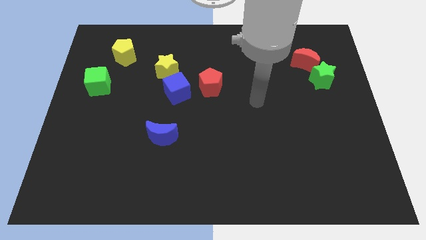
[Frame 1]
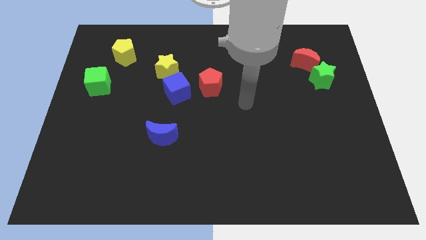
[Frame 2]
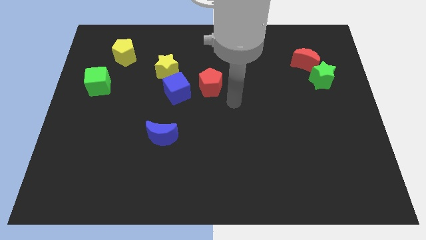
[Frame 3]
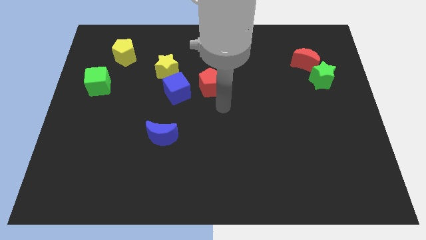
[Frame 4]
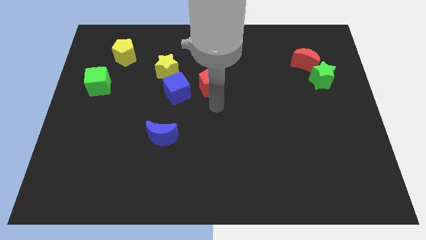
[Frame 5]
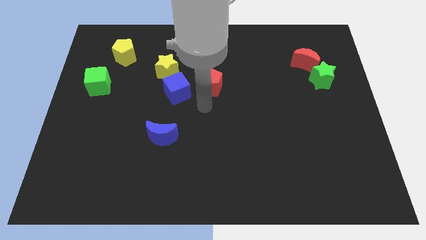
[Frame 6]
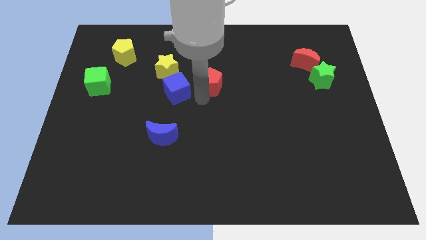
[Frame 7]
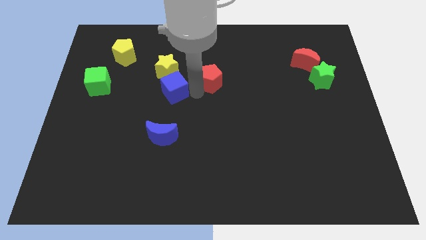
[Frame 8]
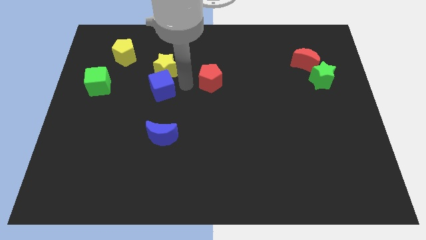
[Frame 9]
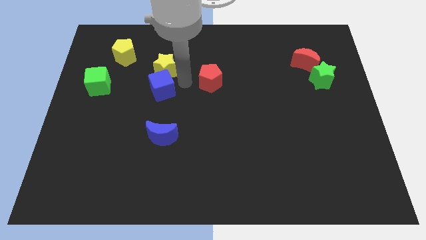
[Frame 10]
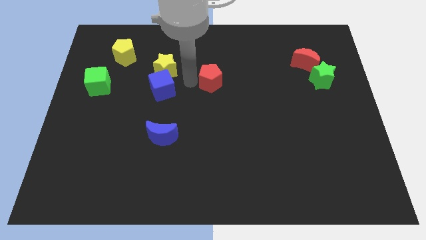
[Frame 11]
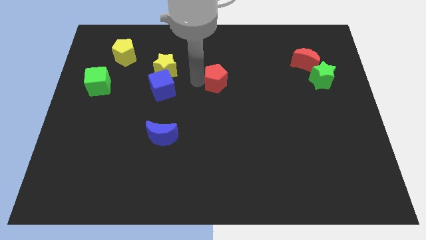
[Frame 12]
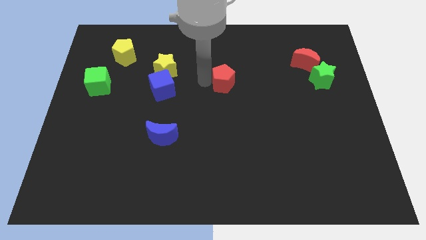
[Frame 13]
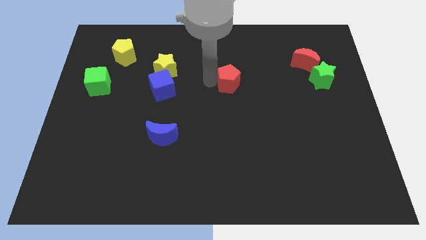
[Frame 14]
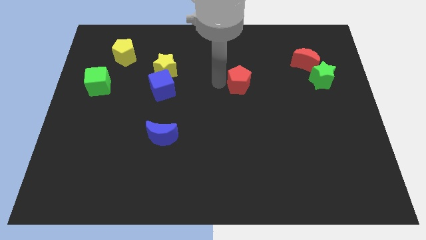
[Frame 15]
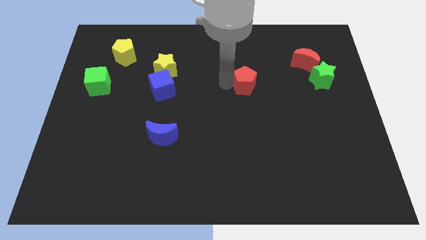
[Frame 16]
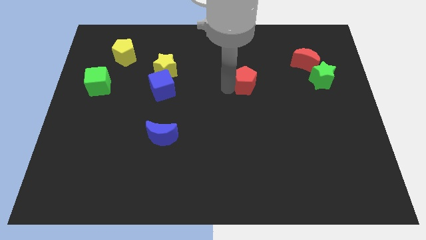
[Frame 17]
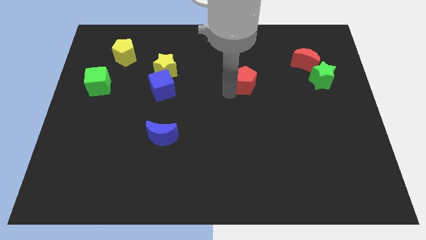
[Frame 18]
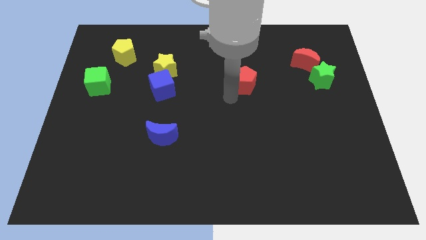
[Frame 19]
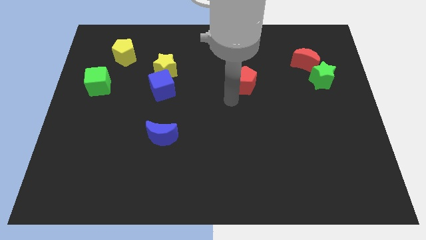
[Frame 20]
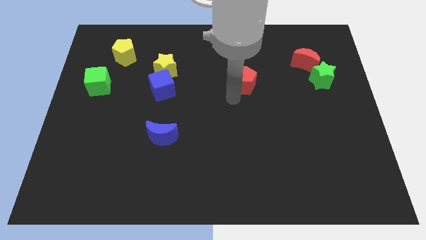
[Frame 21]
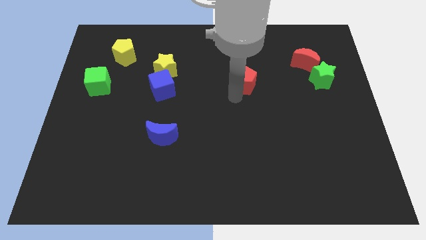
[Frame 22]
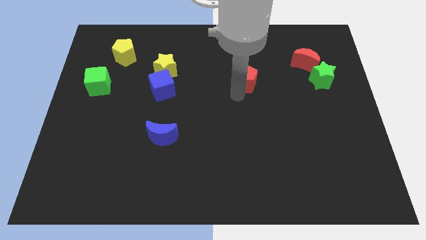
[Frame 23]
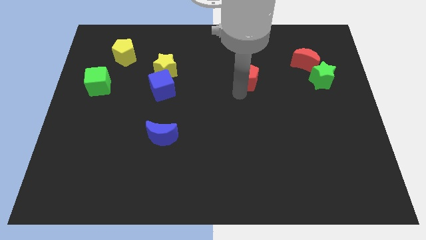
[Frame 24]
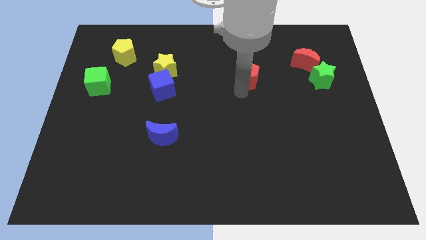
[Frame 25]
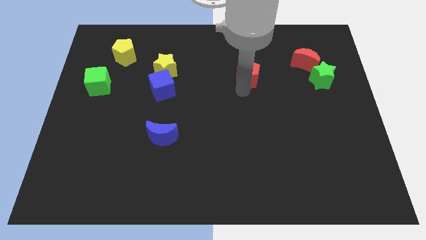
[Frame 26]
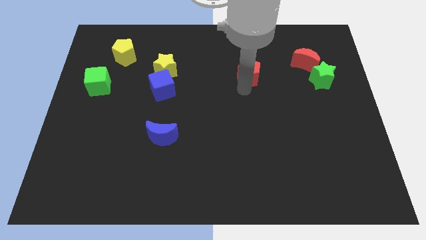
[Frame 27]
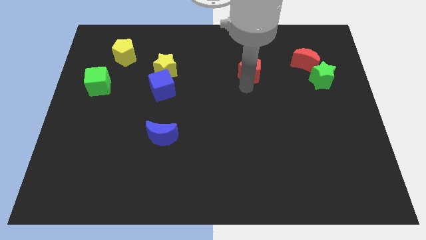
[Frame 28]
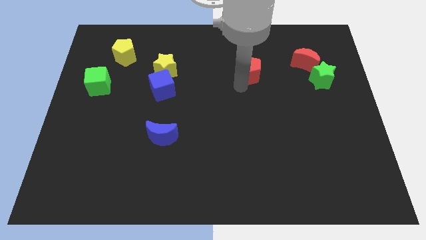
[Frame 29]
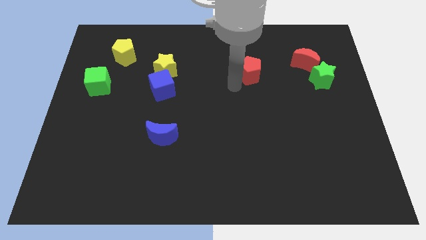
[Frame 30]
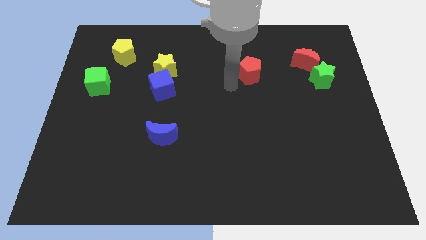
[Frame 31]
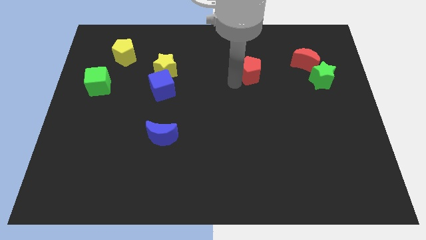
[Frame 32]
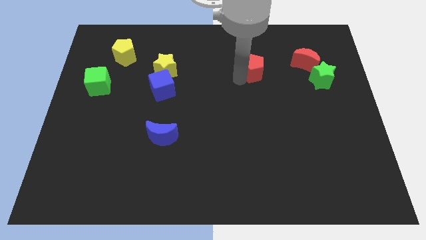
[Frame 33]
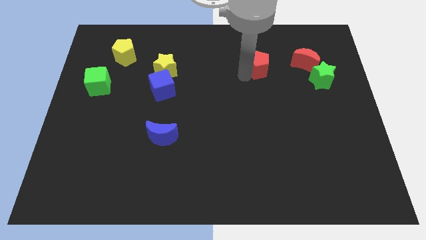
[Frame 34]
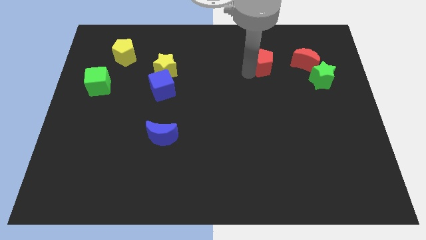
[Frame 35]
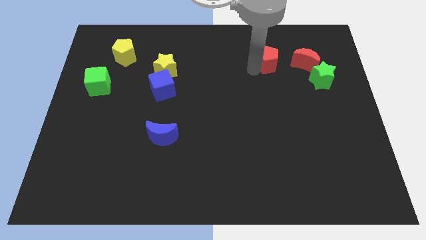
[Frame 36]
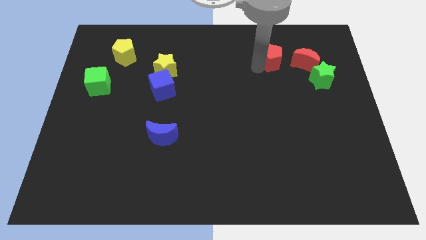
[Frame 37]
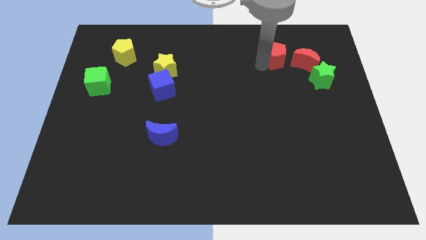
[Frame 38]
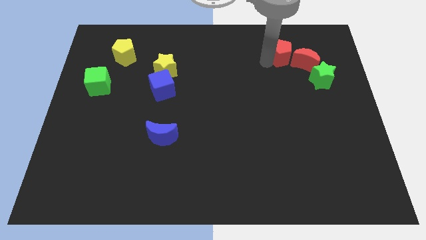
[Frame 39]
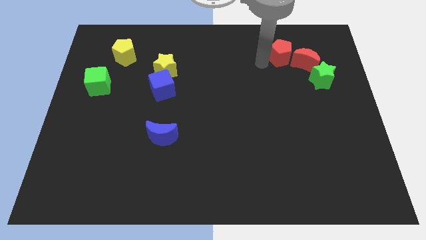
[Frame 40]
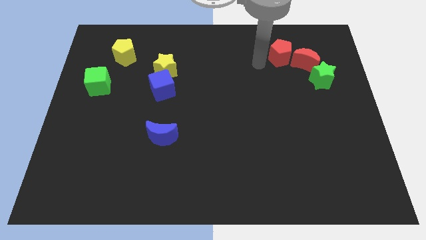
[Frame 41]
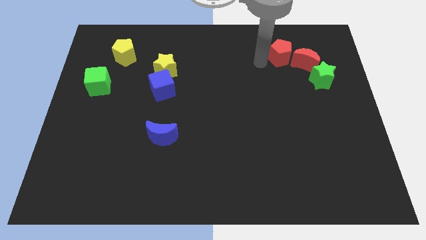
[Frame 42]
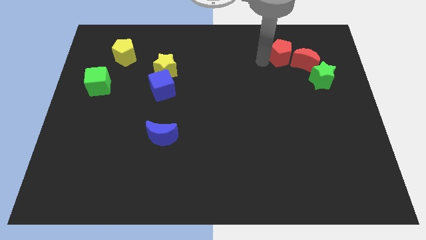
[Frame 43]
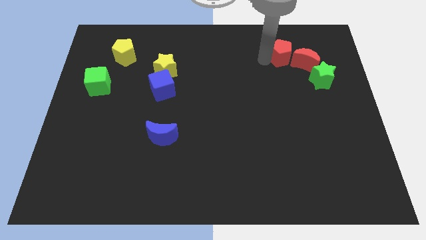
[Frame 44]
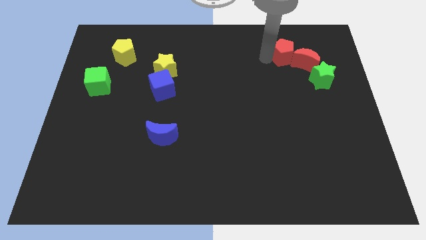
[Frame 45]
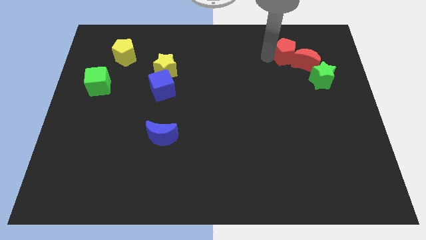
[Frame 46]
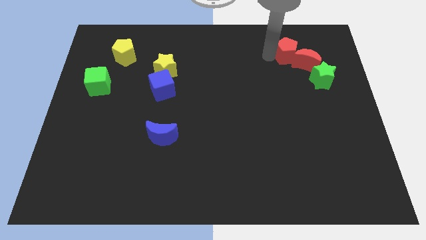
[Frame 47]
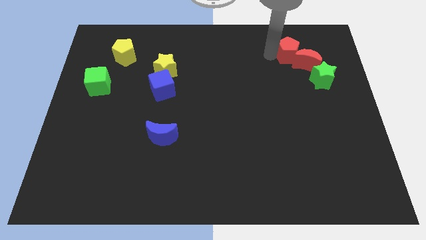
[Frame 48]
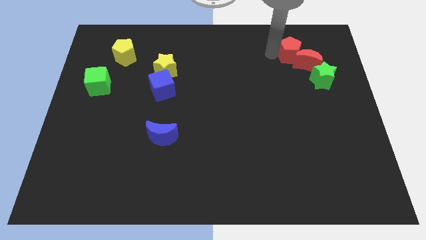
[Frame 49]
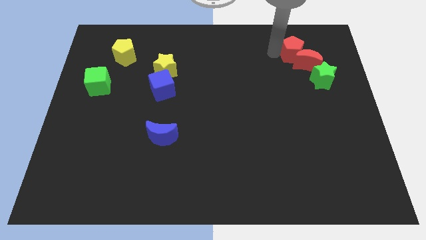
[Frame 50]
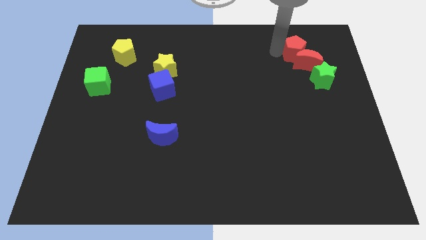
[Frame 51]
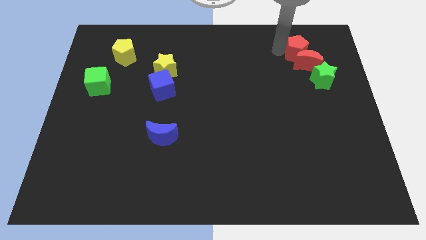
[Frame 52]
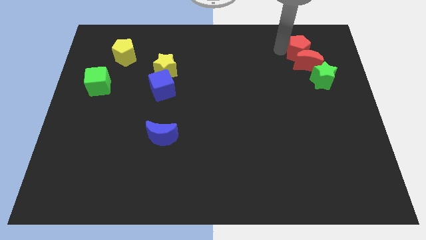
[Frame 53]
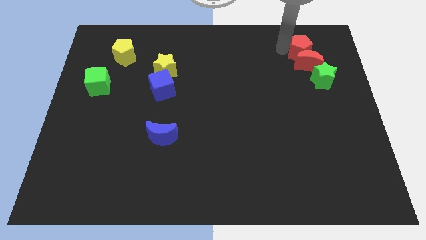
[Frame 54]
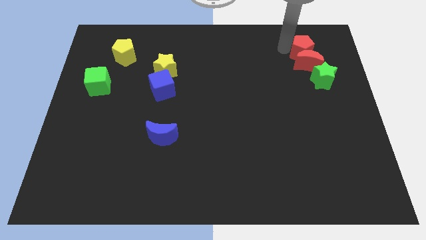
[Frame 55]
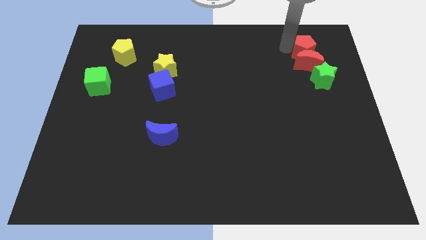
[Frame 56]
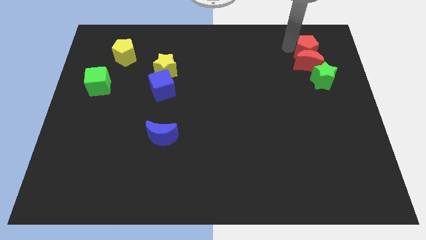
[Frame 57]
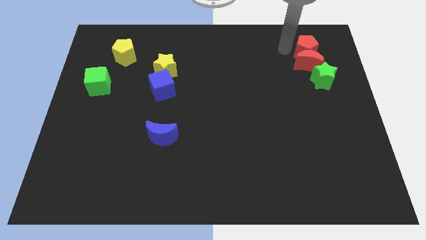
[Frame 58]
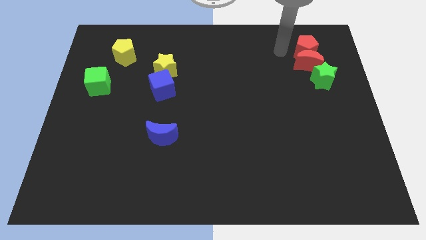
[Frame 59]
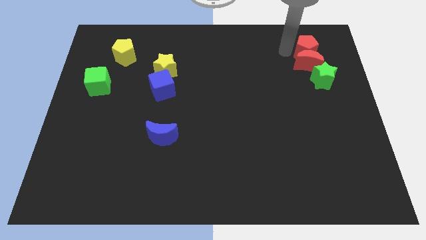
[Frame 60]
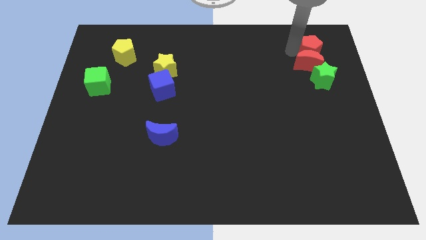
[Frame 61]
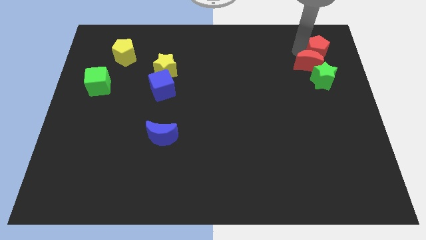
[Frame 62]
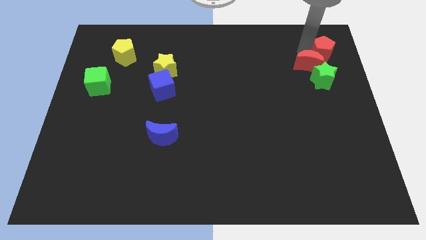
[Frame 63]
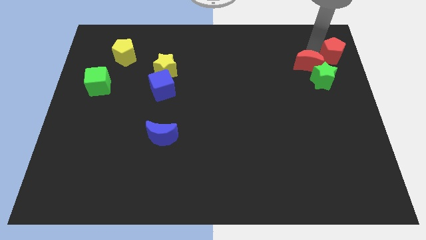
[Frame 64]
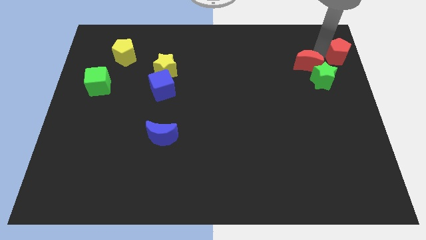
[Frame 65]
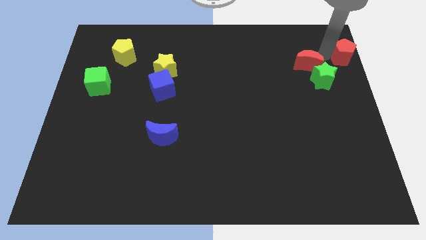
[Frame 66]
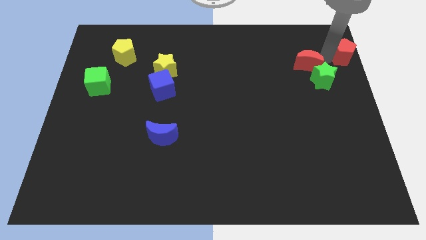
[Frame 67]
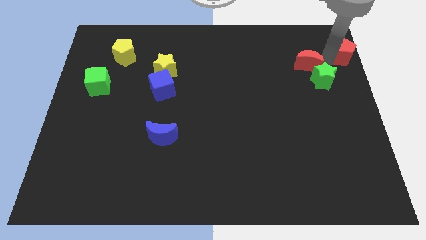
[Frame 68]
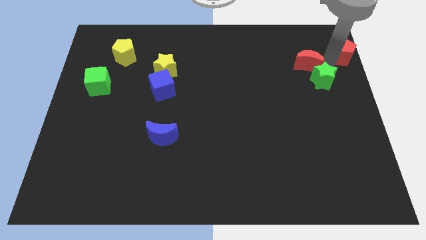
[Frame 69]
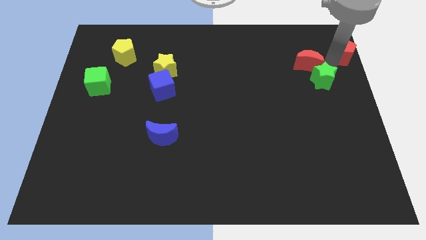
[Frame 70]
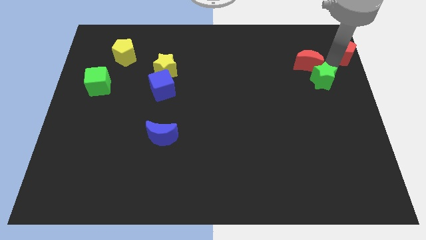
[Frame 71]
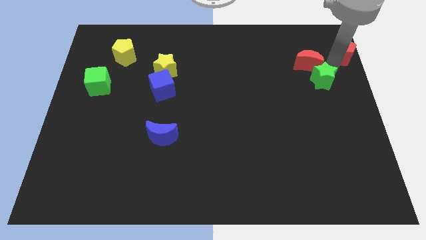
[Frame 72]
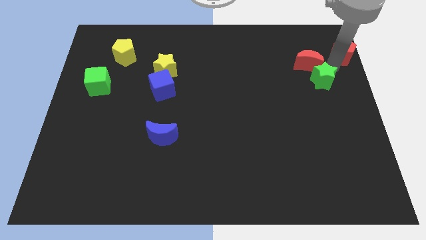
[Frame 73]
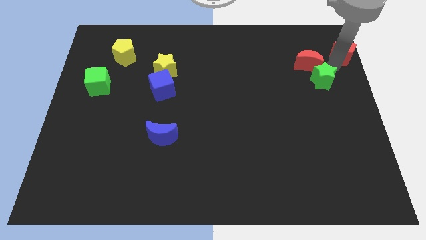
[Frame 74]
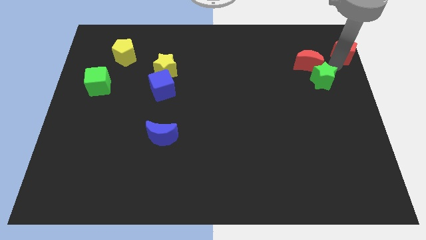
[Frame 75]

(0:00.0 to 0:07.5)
slide the red pentagon to the top right corner
